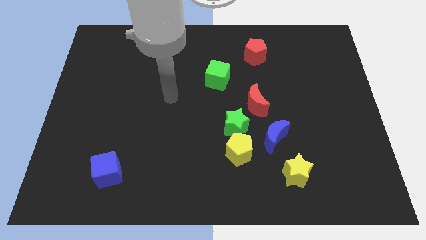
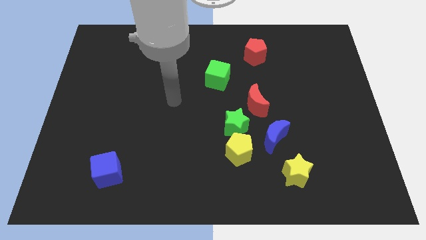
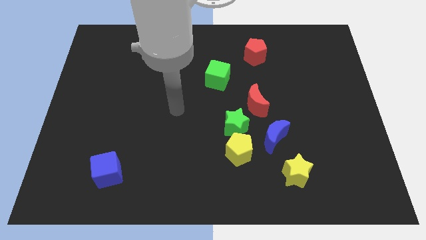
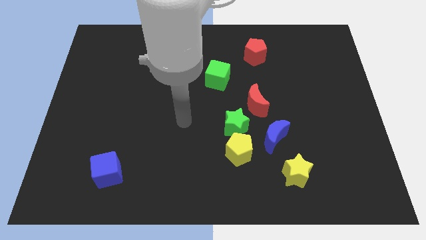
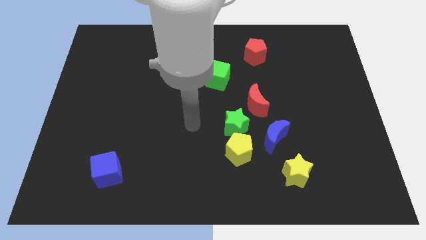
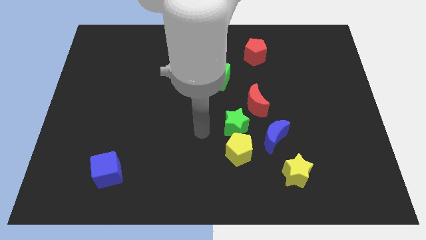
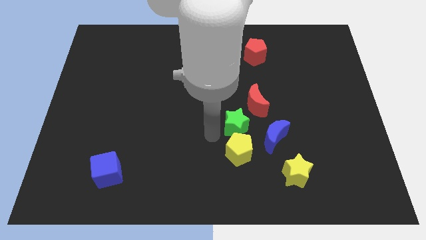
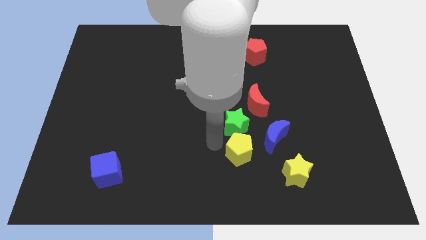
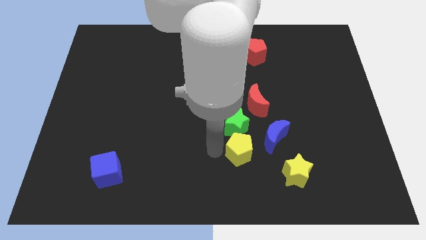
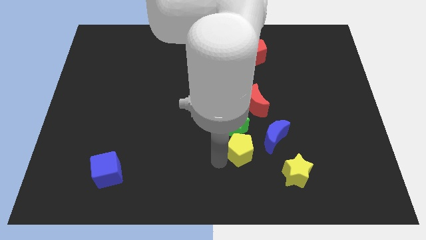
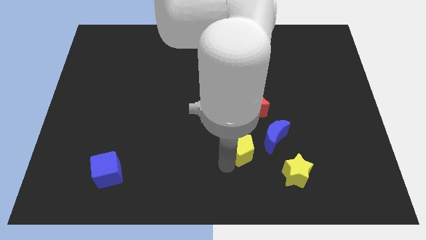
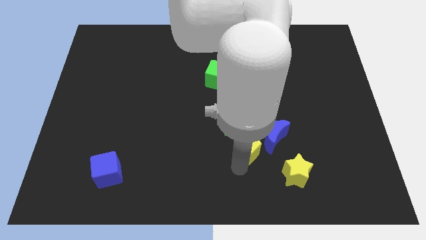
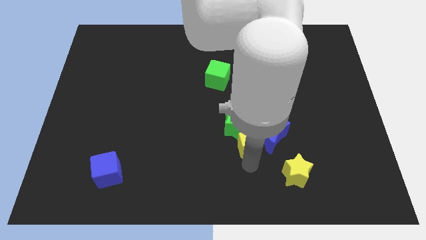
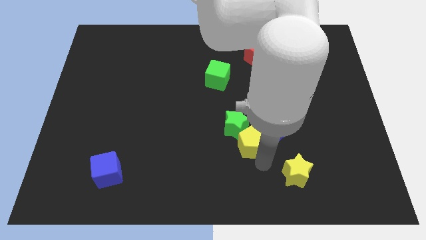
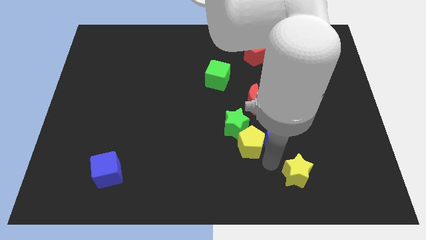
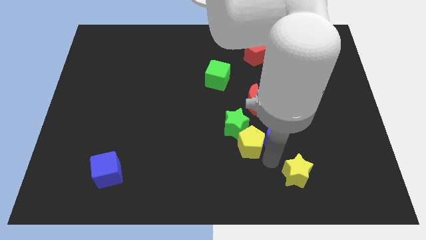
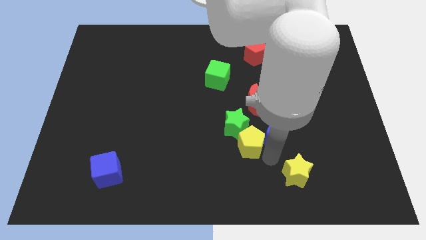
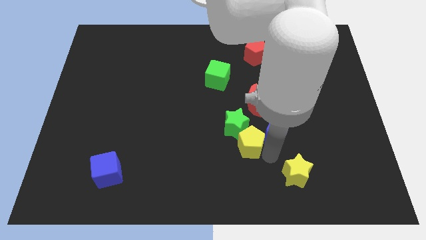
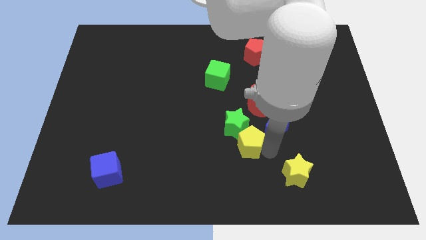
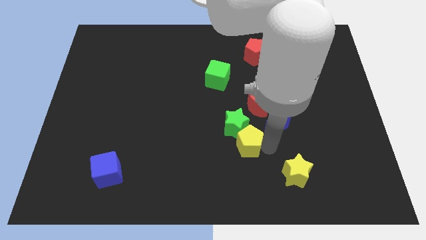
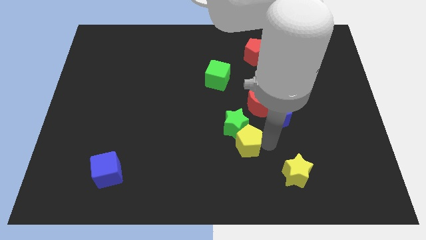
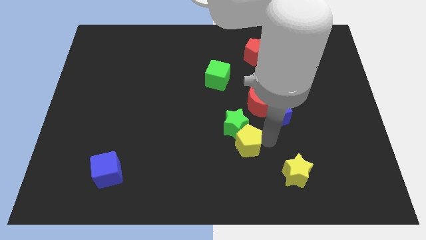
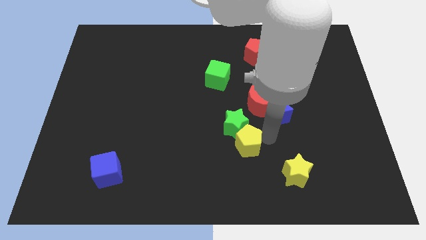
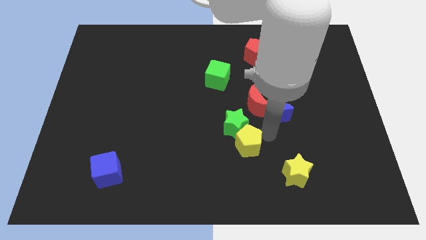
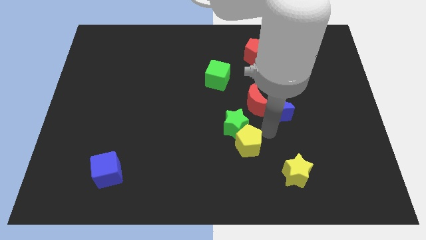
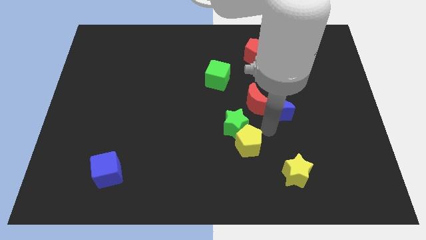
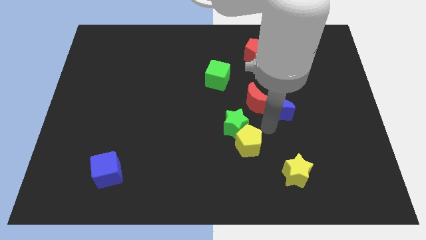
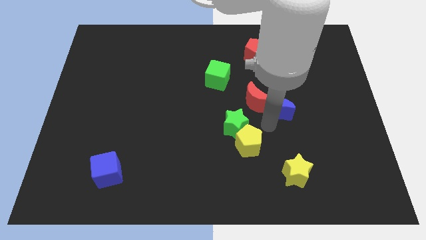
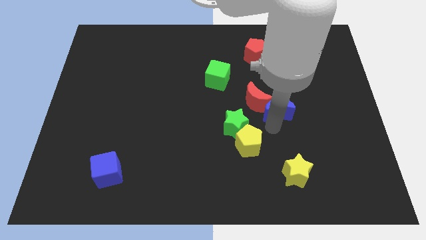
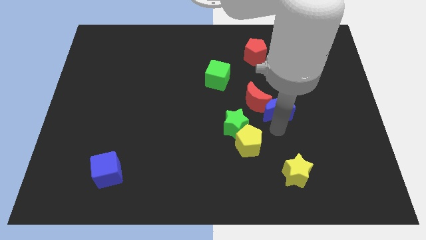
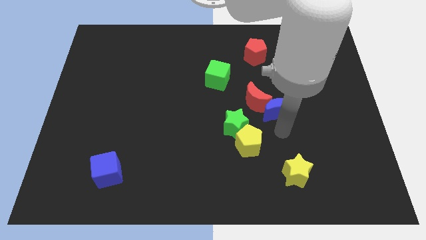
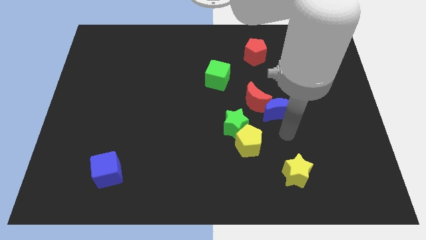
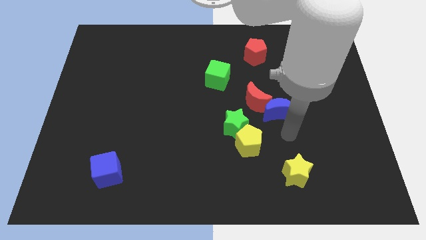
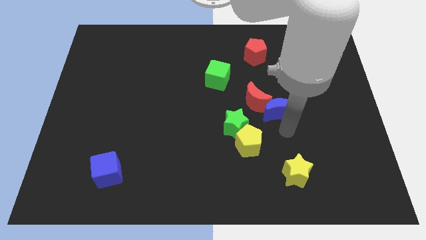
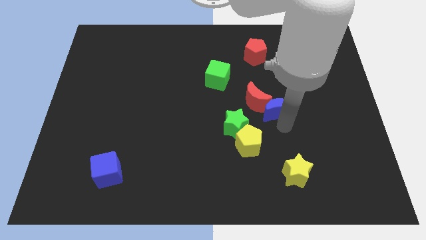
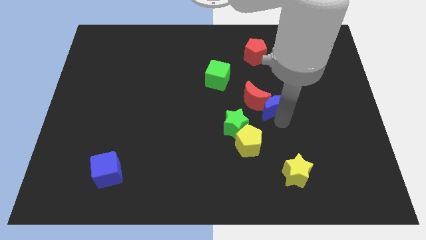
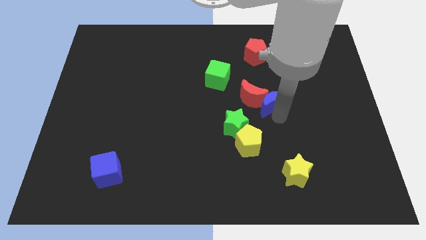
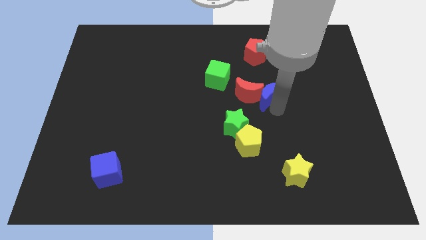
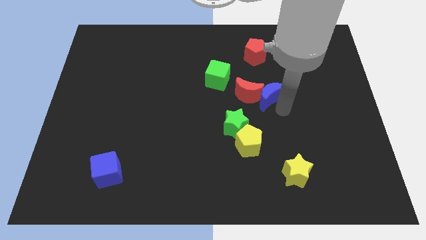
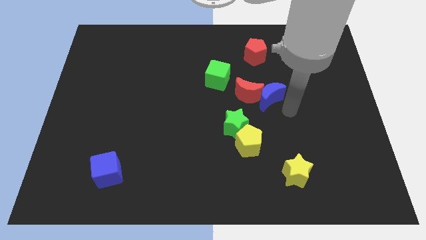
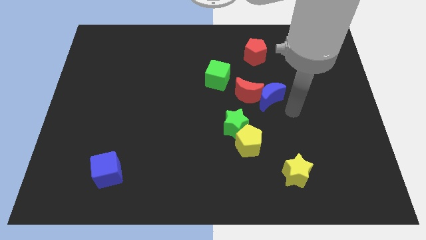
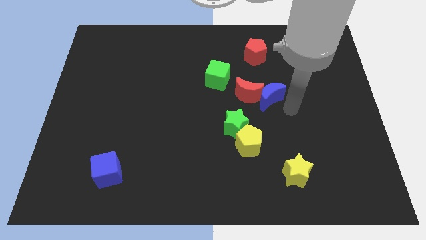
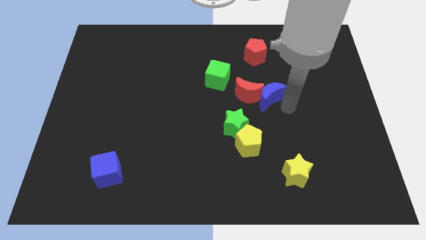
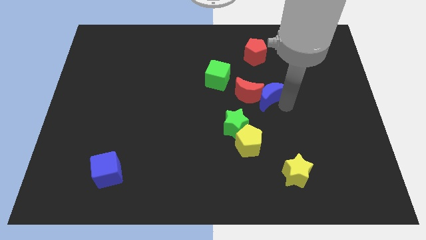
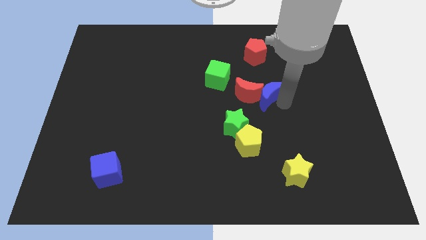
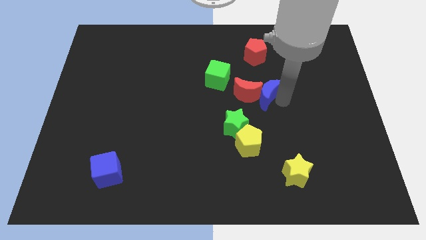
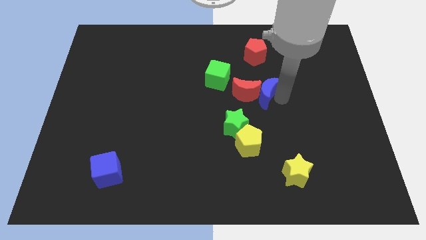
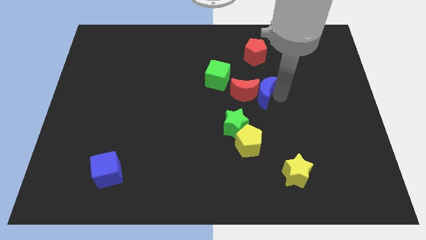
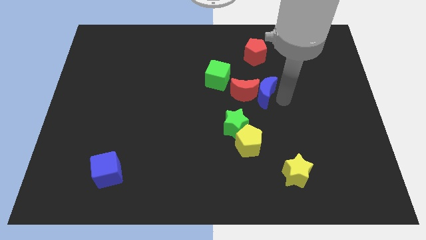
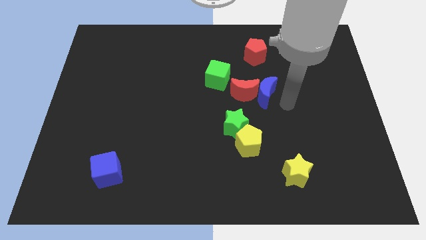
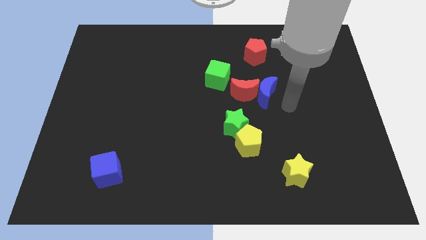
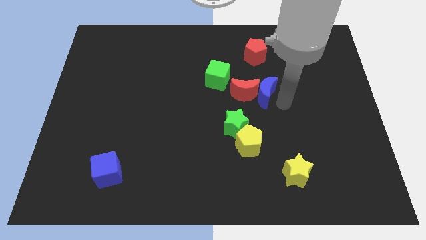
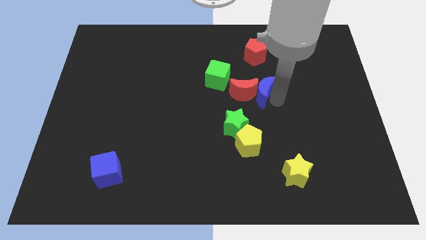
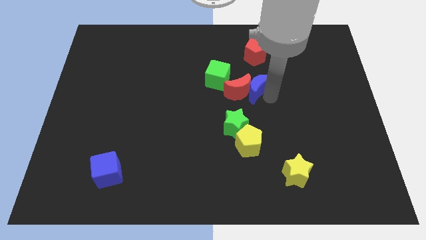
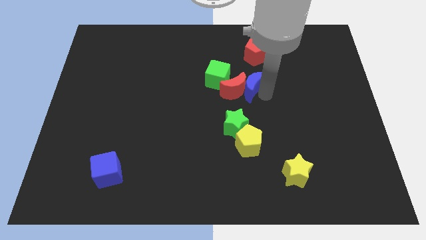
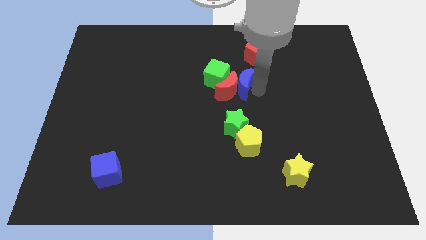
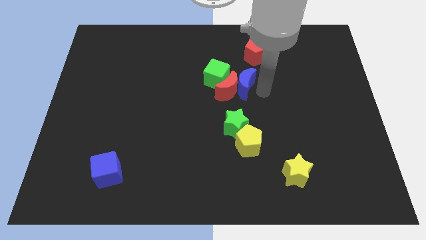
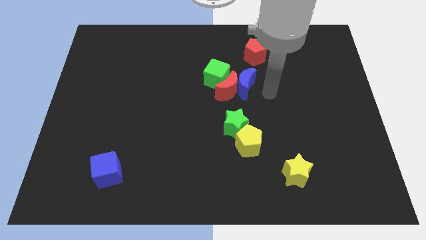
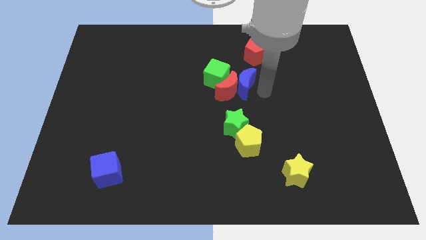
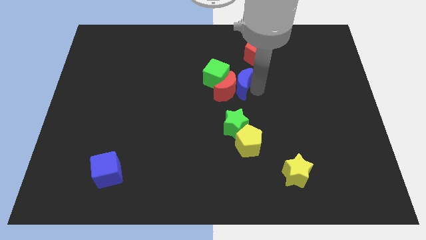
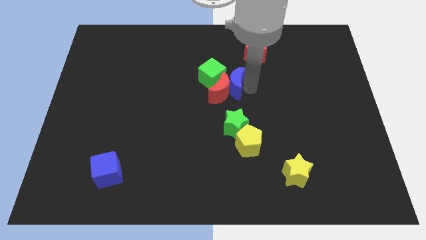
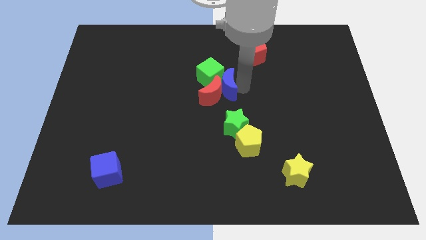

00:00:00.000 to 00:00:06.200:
move the blue moon close to the green cube

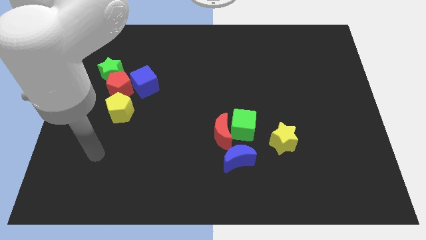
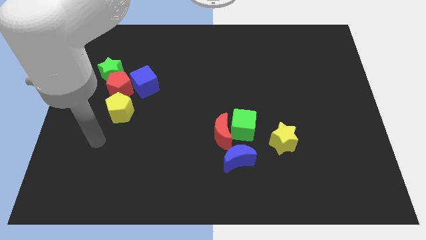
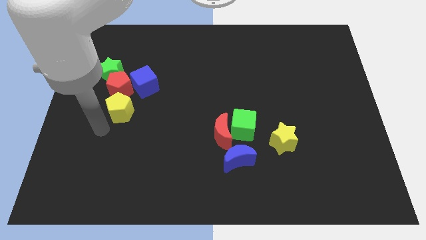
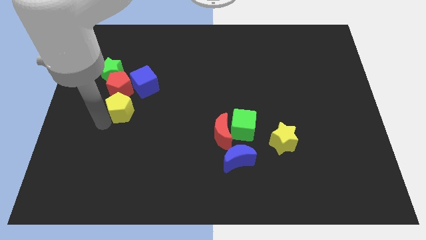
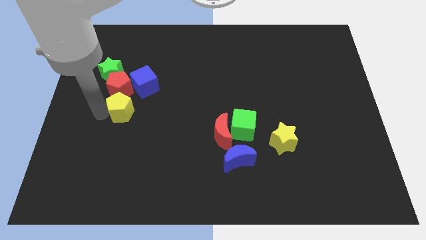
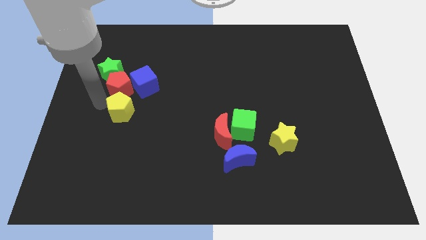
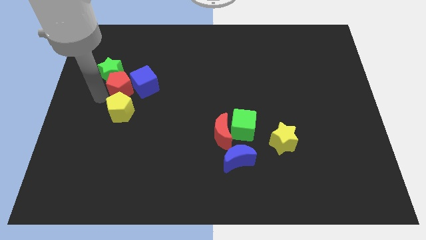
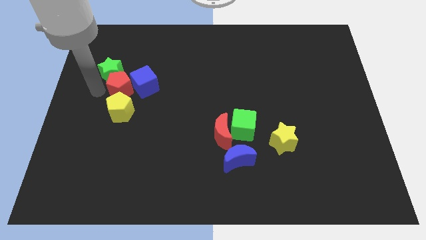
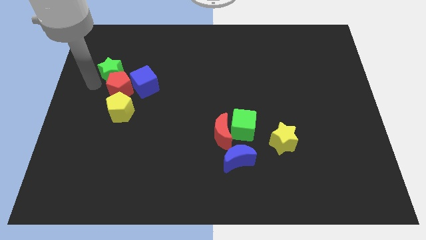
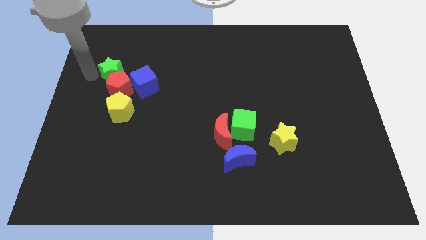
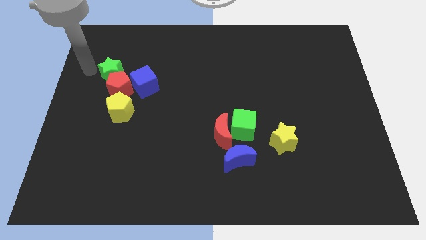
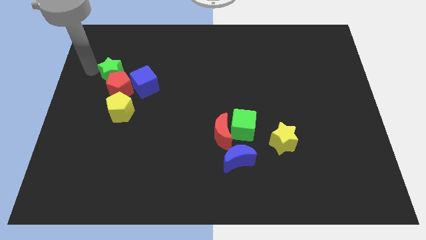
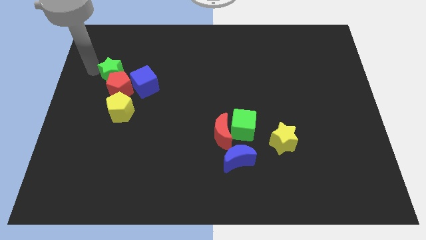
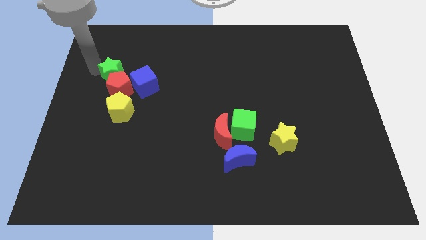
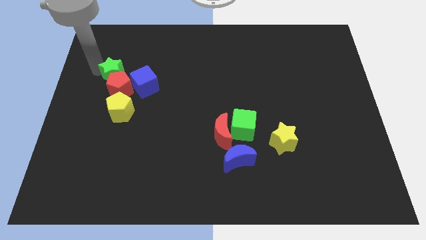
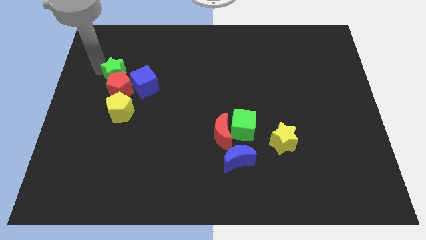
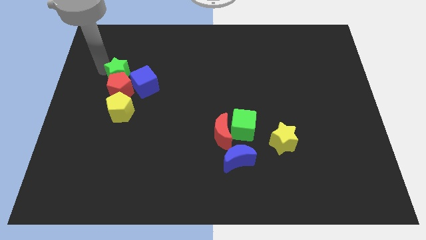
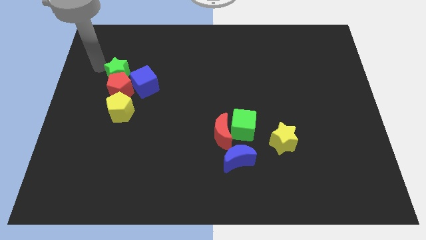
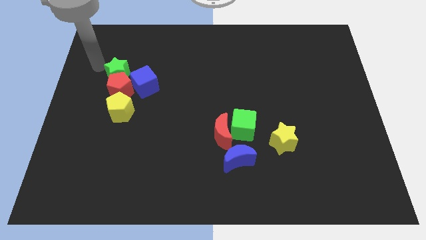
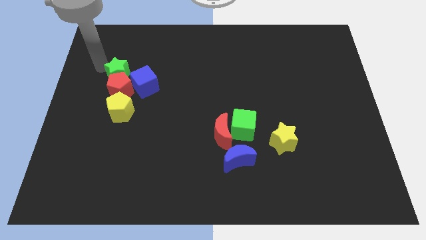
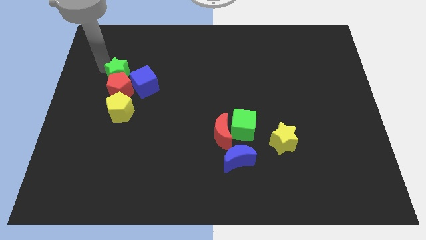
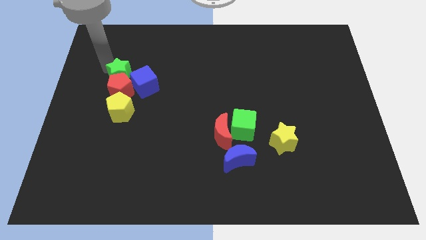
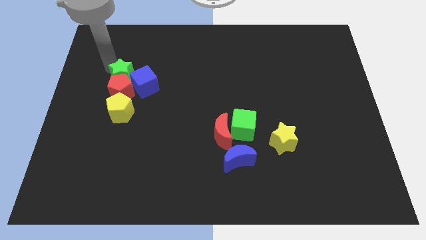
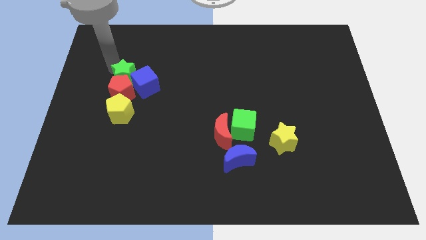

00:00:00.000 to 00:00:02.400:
move the green star towards the blue cube
